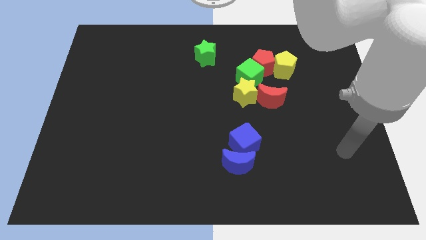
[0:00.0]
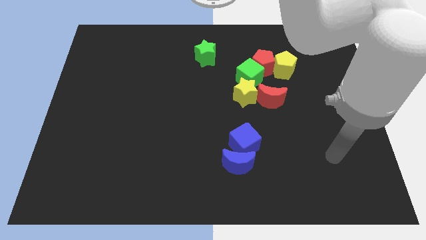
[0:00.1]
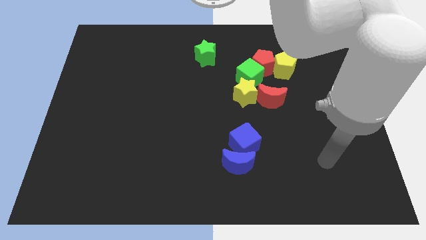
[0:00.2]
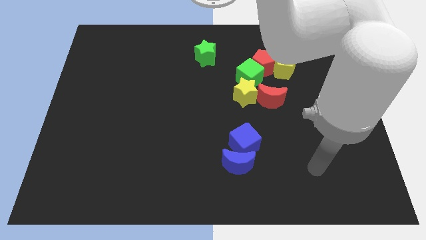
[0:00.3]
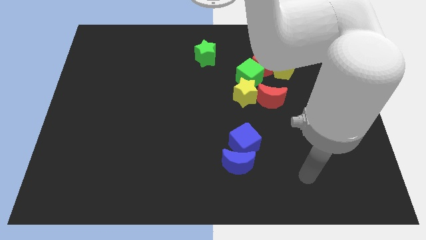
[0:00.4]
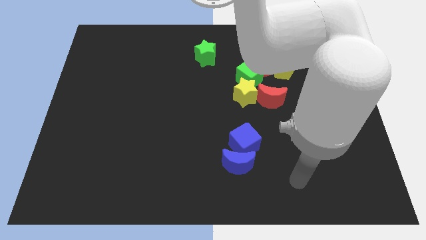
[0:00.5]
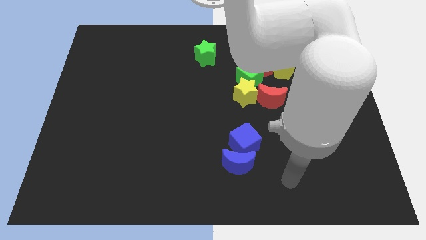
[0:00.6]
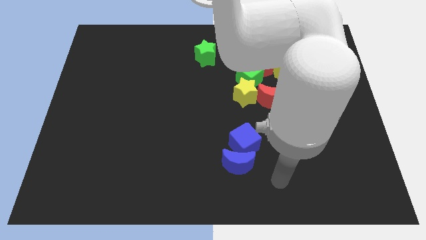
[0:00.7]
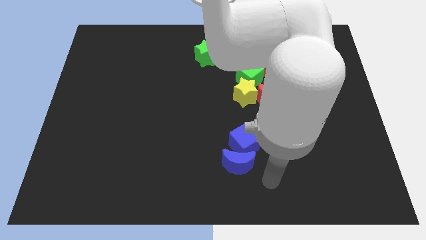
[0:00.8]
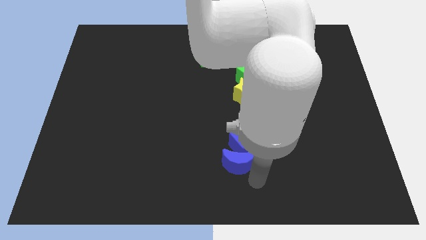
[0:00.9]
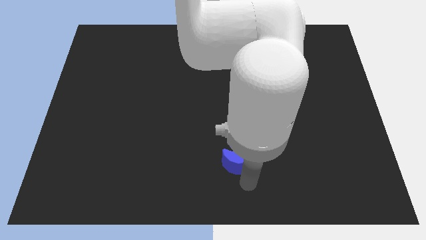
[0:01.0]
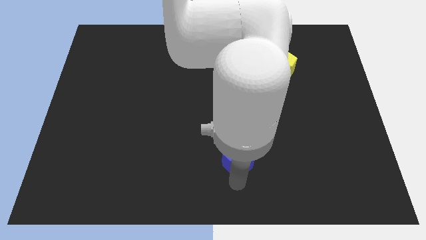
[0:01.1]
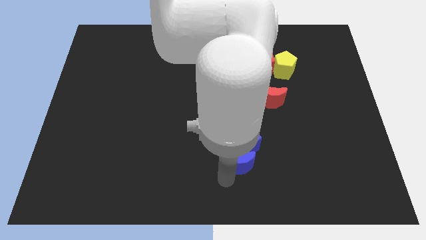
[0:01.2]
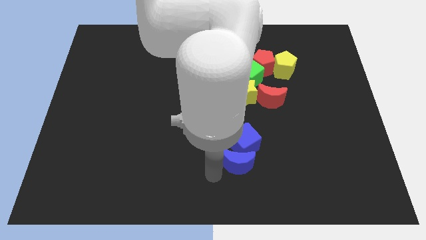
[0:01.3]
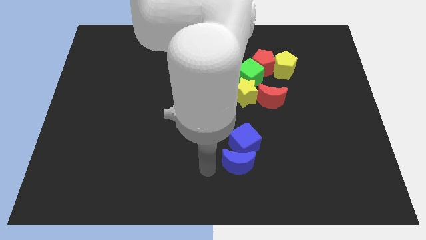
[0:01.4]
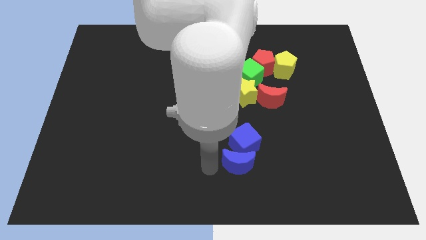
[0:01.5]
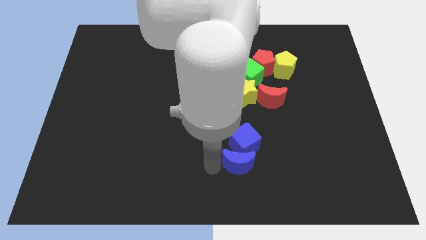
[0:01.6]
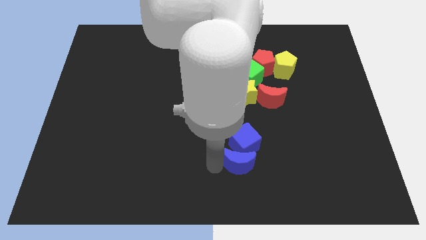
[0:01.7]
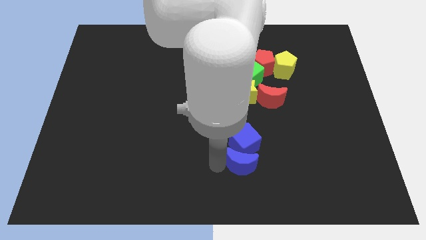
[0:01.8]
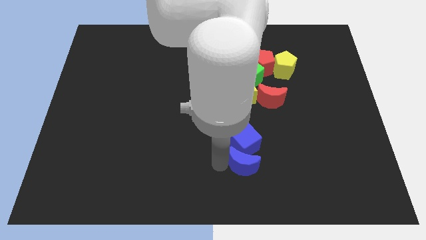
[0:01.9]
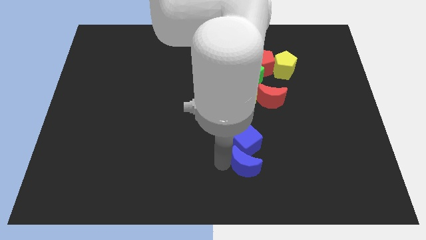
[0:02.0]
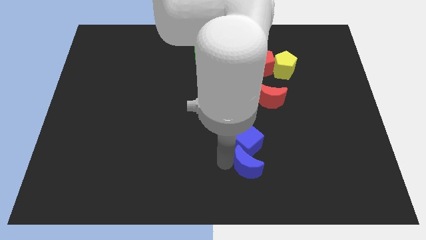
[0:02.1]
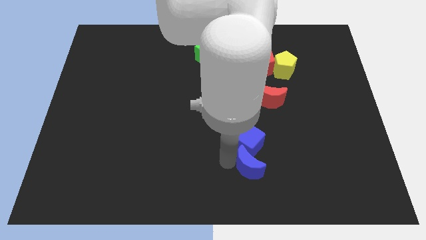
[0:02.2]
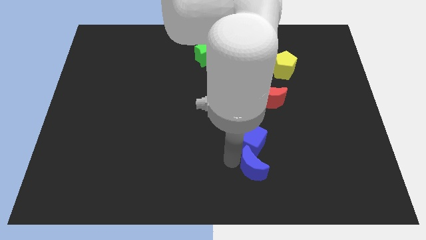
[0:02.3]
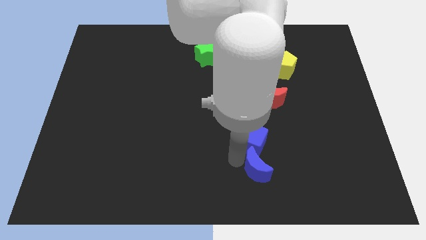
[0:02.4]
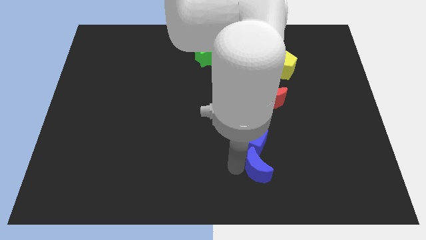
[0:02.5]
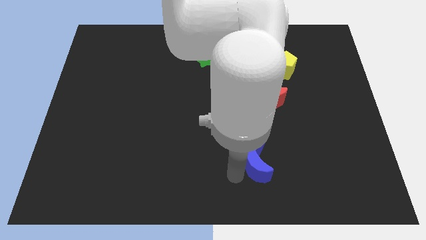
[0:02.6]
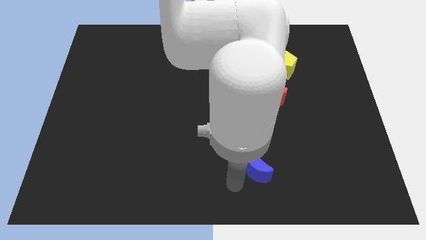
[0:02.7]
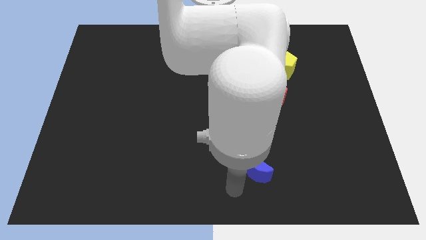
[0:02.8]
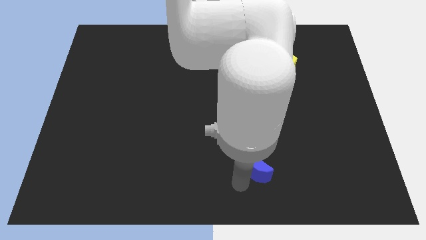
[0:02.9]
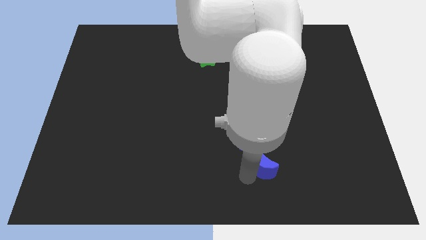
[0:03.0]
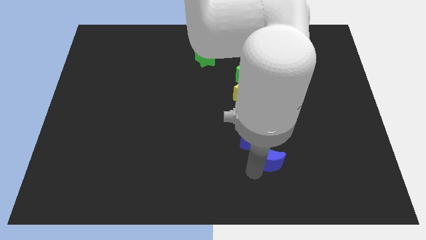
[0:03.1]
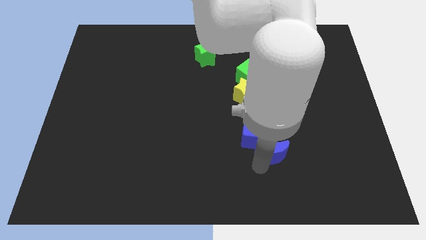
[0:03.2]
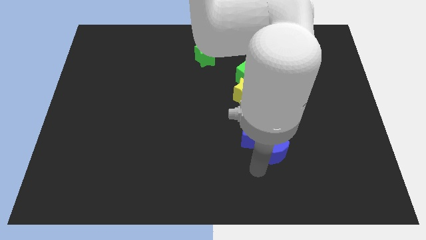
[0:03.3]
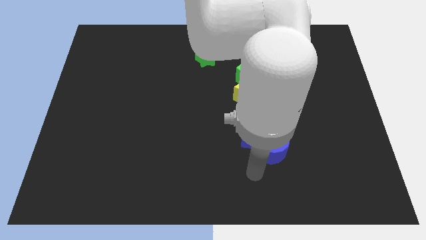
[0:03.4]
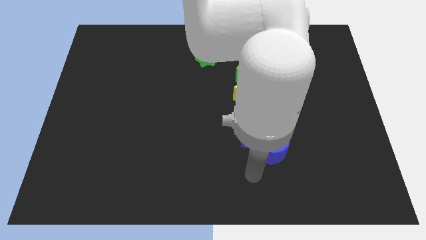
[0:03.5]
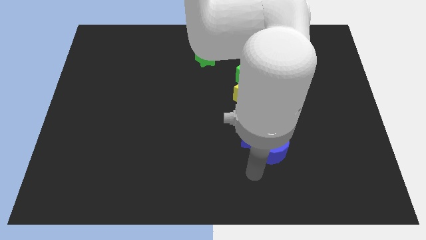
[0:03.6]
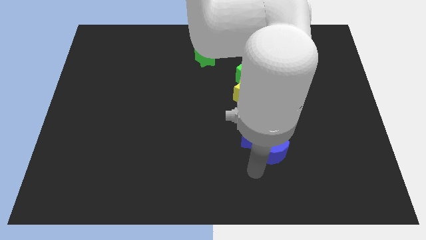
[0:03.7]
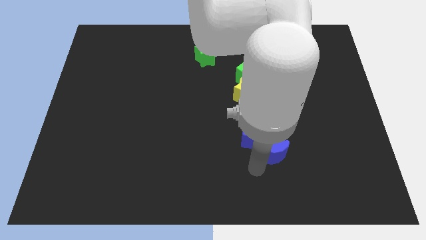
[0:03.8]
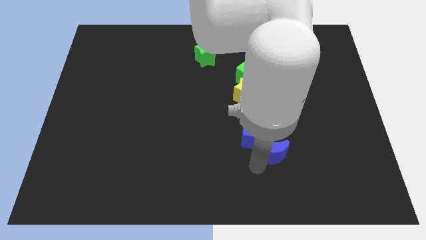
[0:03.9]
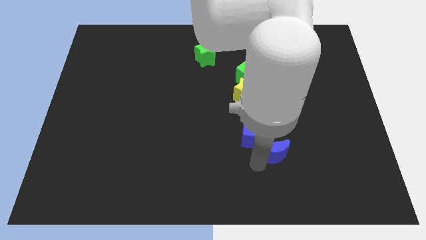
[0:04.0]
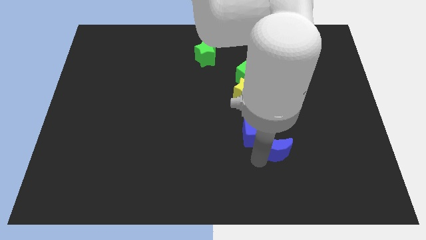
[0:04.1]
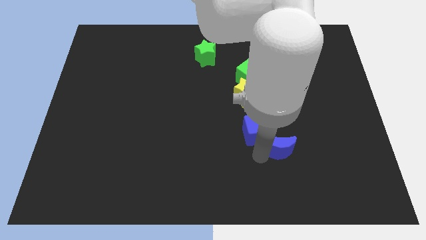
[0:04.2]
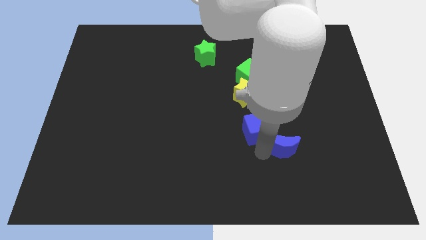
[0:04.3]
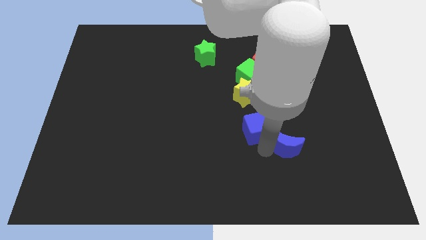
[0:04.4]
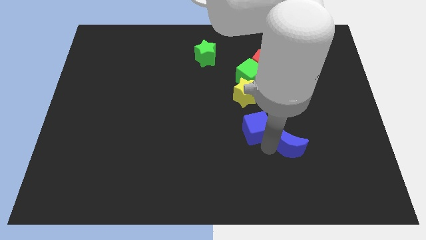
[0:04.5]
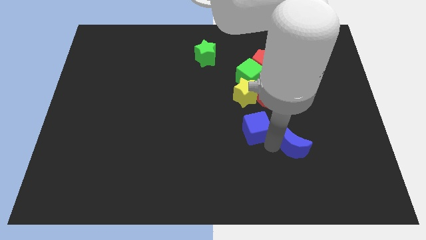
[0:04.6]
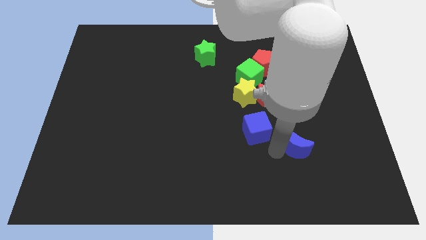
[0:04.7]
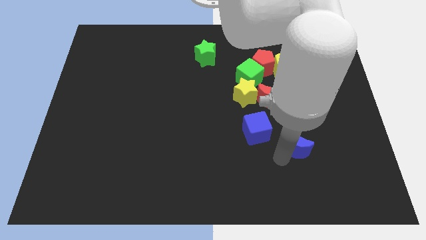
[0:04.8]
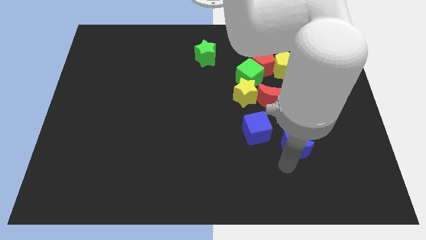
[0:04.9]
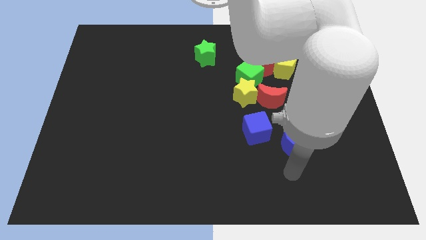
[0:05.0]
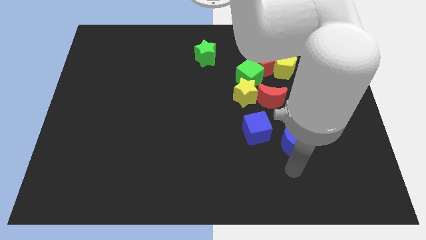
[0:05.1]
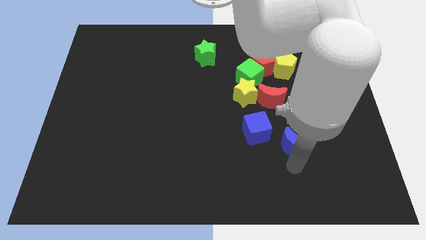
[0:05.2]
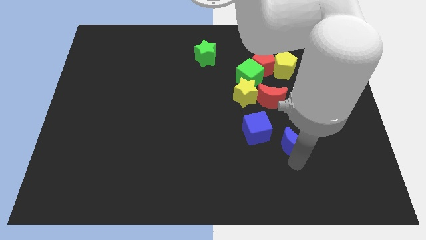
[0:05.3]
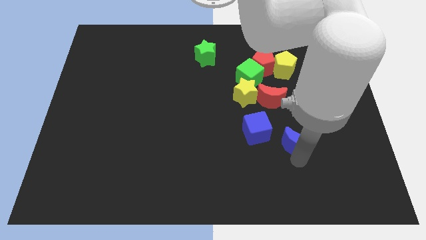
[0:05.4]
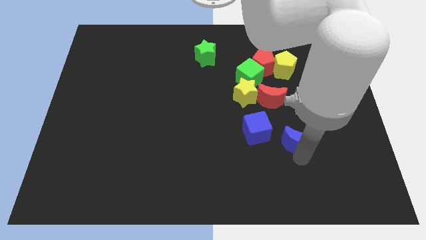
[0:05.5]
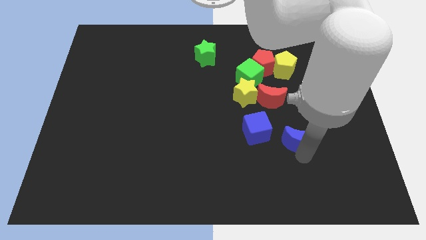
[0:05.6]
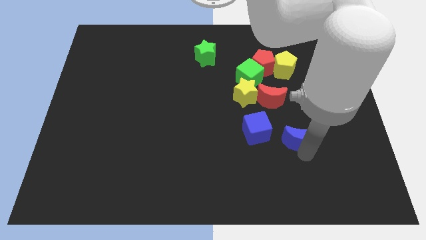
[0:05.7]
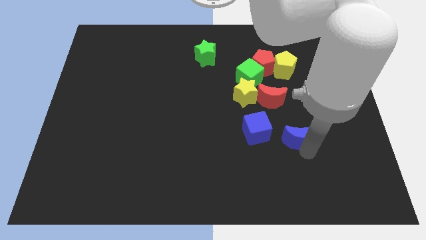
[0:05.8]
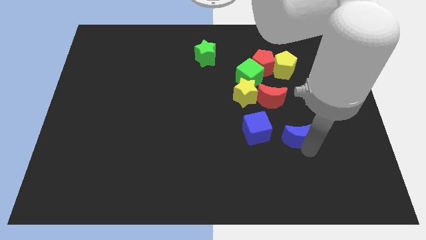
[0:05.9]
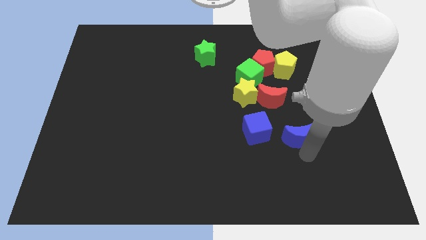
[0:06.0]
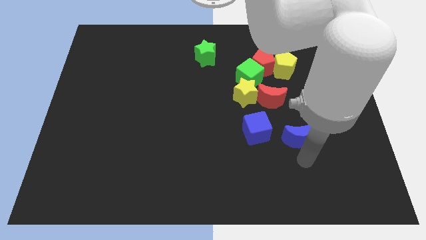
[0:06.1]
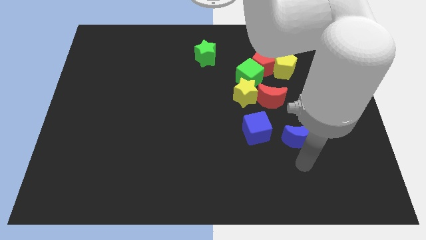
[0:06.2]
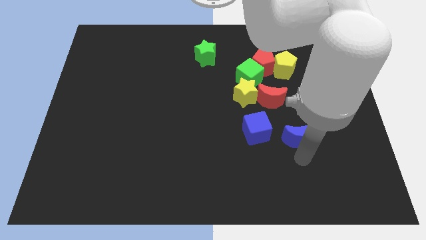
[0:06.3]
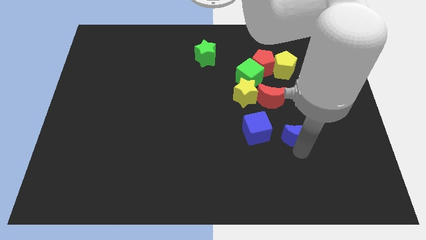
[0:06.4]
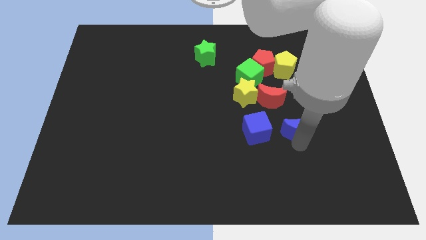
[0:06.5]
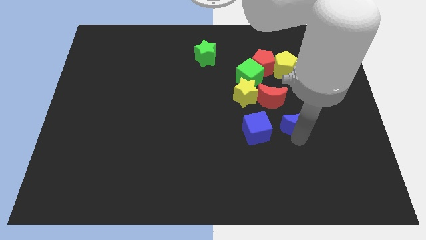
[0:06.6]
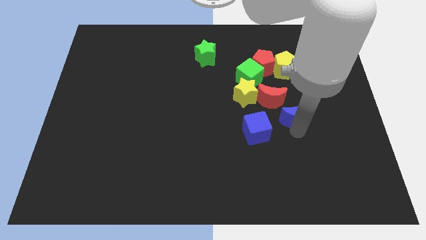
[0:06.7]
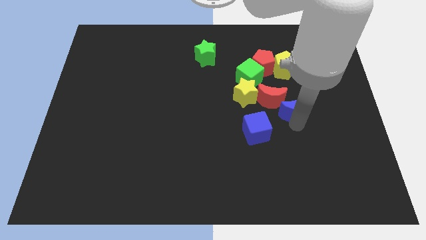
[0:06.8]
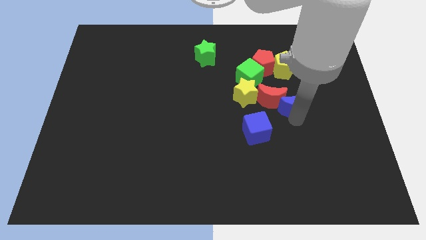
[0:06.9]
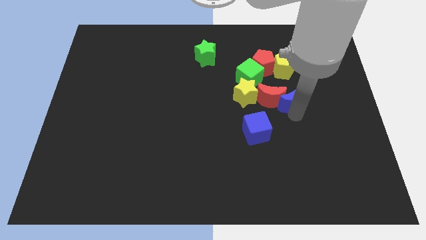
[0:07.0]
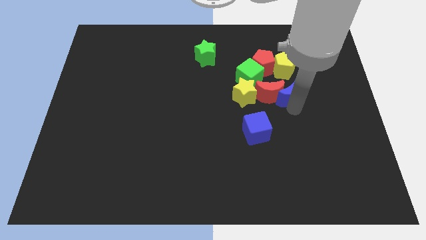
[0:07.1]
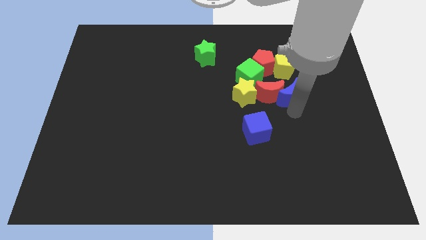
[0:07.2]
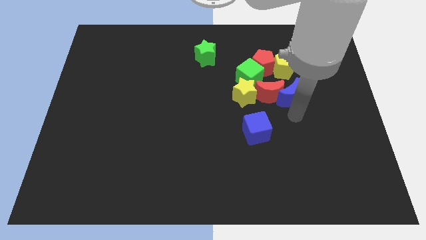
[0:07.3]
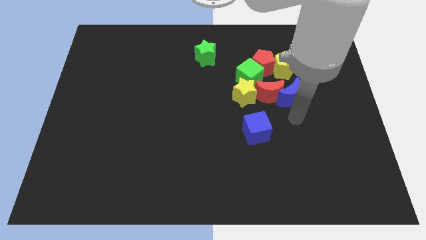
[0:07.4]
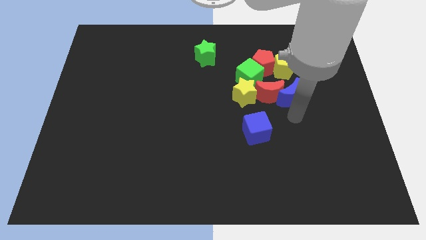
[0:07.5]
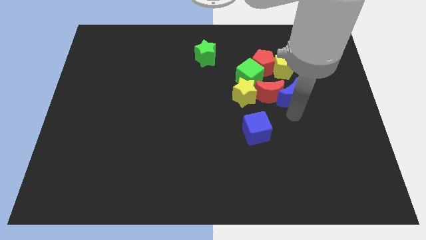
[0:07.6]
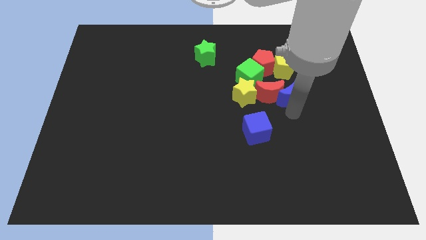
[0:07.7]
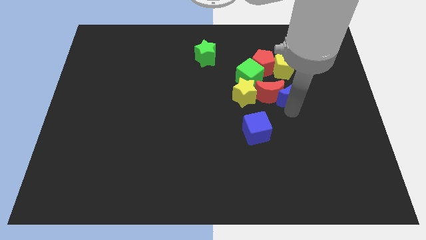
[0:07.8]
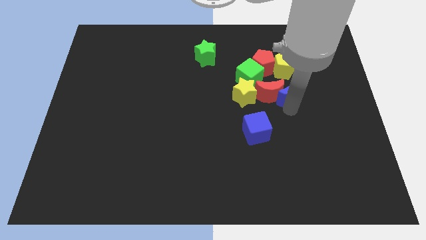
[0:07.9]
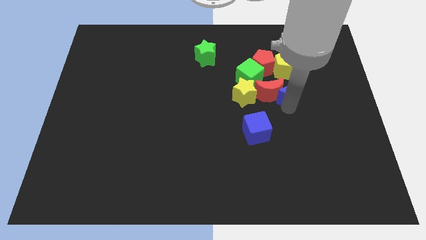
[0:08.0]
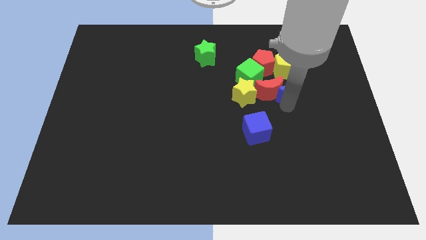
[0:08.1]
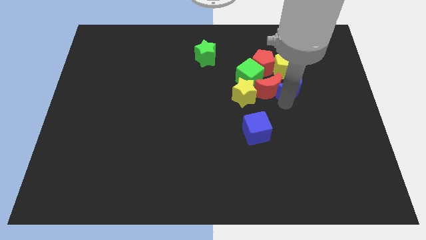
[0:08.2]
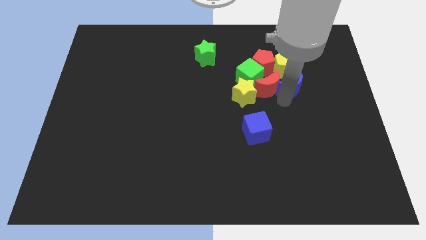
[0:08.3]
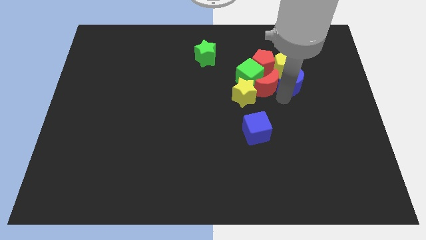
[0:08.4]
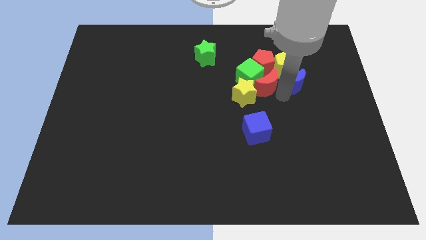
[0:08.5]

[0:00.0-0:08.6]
move the blue moon next to the yellow pentagon
